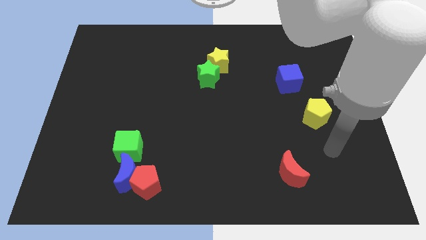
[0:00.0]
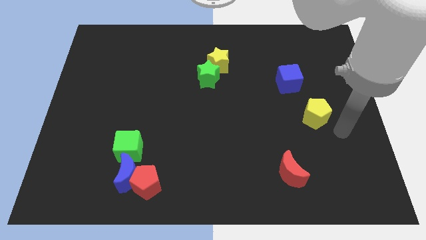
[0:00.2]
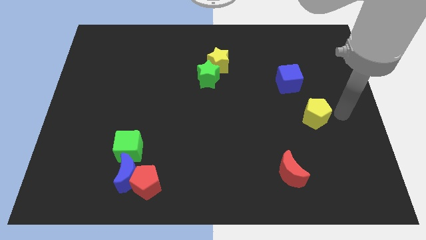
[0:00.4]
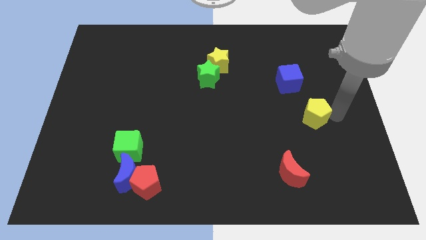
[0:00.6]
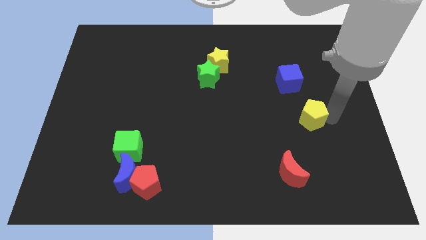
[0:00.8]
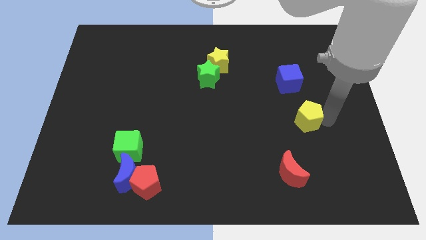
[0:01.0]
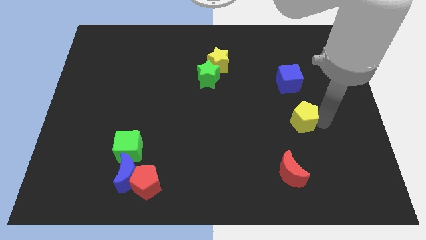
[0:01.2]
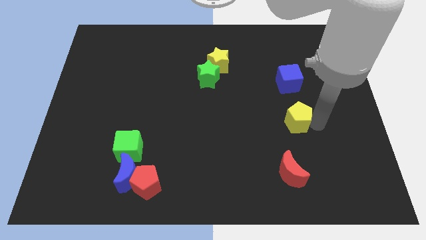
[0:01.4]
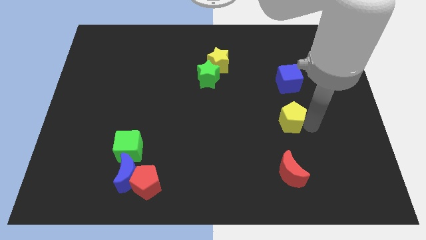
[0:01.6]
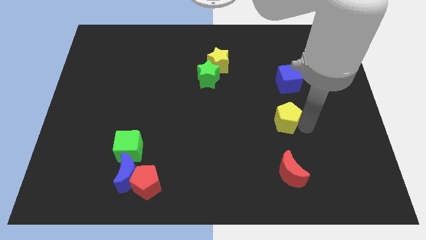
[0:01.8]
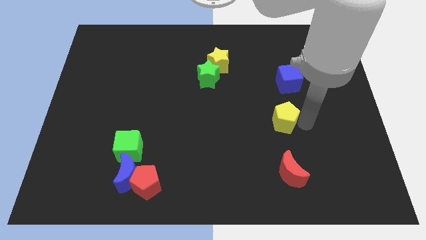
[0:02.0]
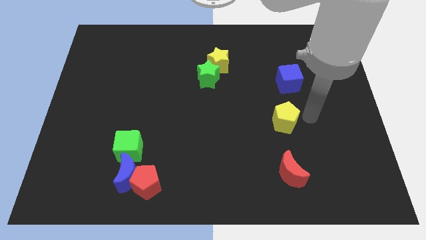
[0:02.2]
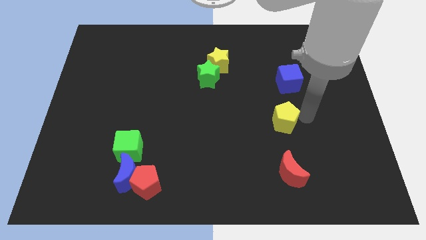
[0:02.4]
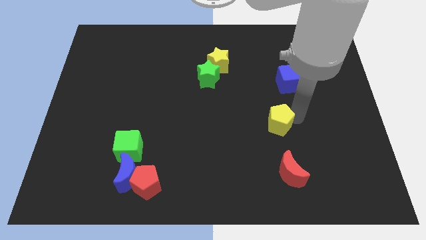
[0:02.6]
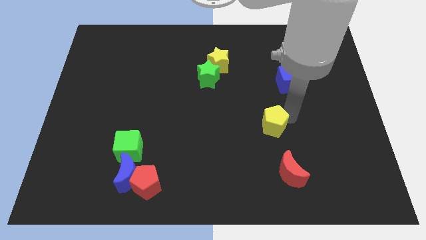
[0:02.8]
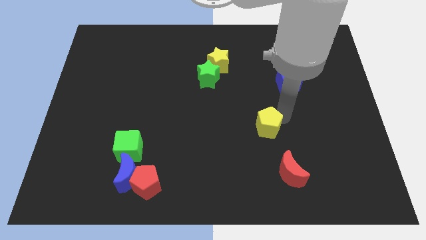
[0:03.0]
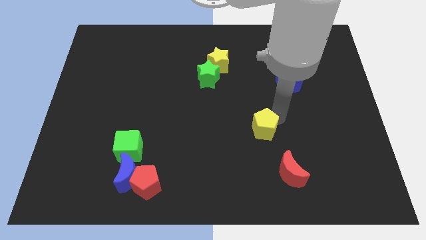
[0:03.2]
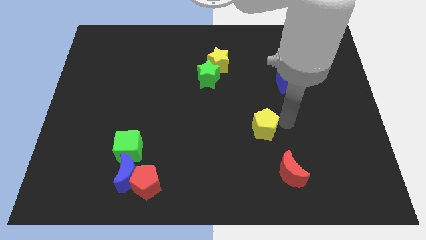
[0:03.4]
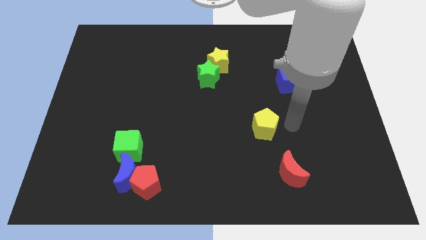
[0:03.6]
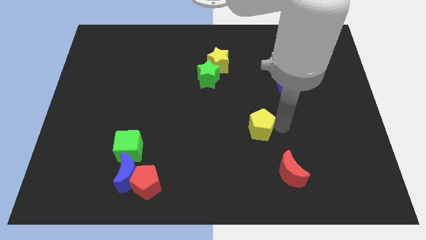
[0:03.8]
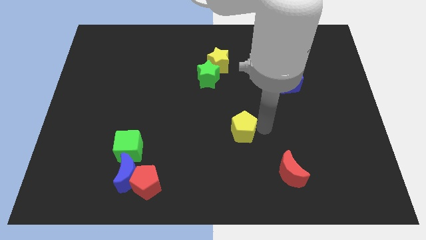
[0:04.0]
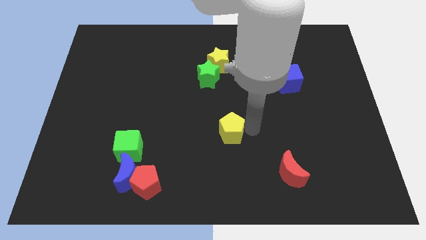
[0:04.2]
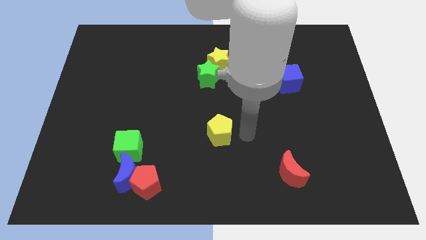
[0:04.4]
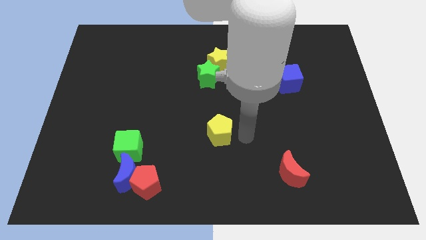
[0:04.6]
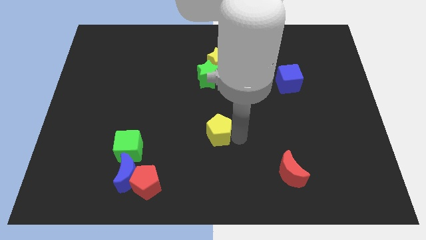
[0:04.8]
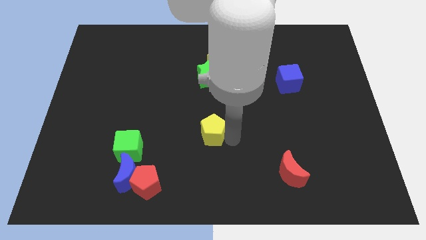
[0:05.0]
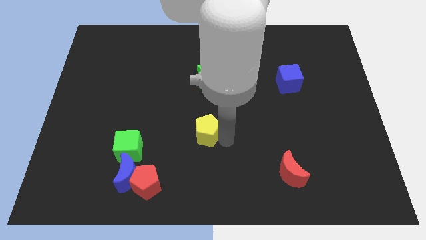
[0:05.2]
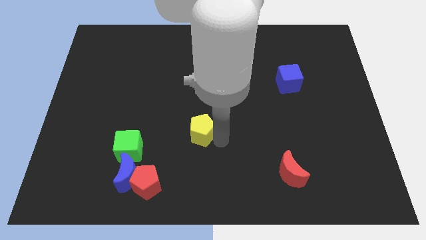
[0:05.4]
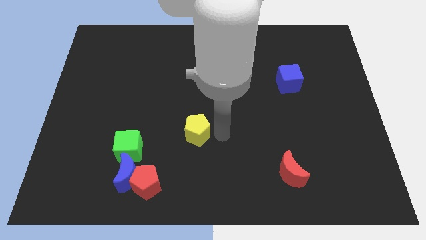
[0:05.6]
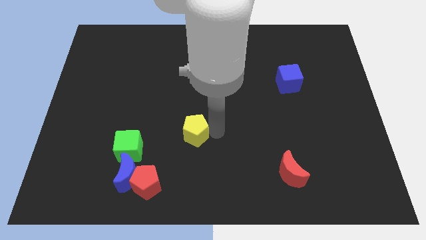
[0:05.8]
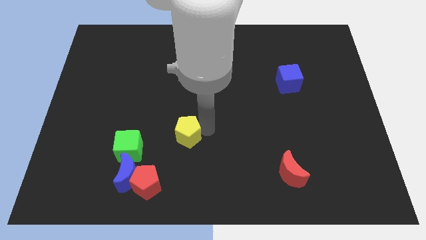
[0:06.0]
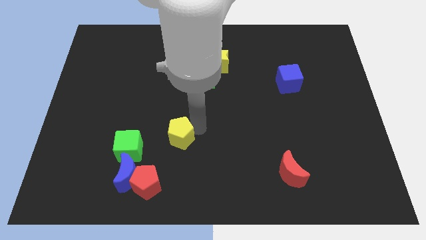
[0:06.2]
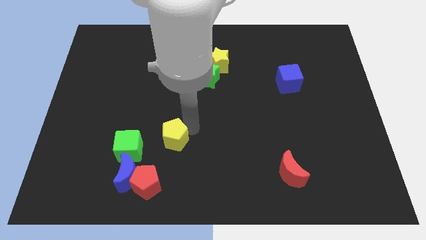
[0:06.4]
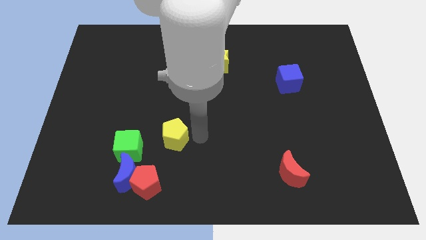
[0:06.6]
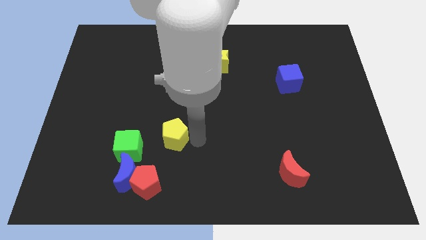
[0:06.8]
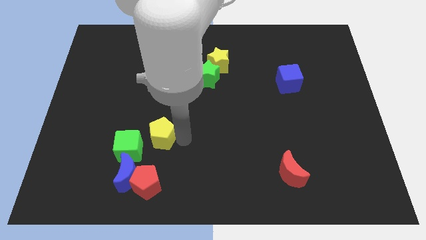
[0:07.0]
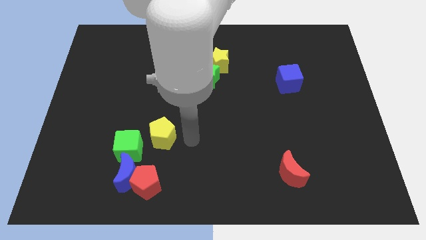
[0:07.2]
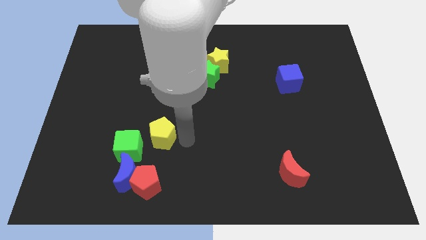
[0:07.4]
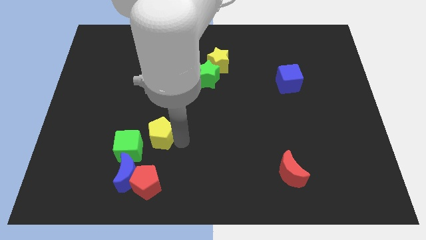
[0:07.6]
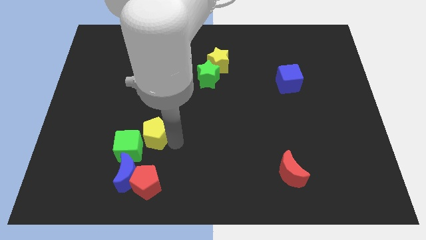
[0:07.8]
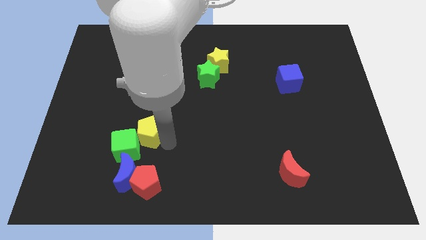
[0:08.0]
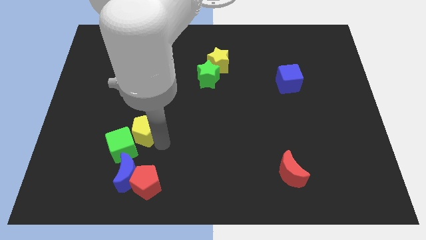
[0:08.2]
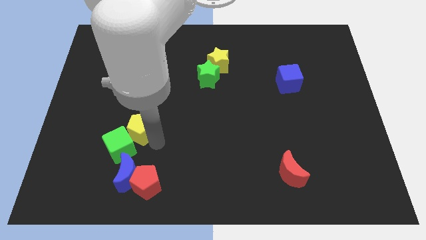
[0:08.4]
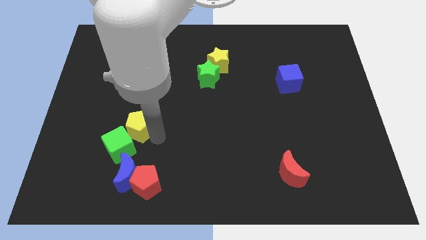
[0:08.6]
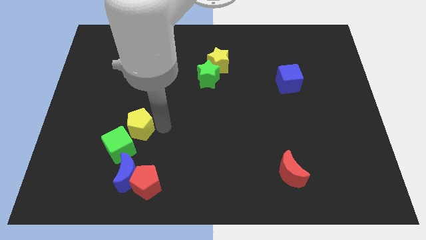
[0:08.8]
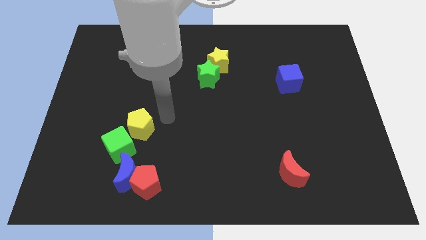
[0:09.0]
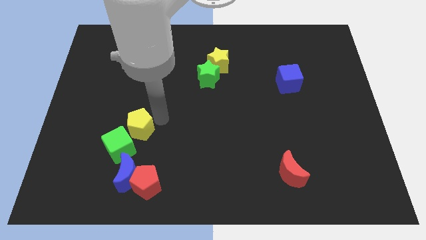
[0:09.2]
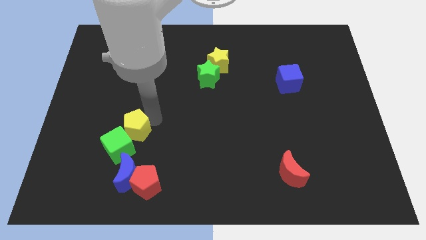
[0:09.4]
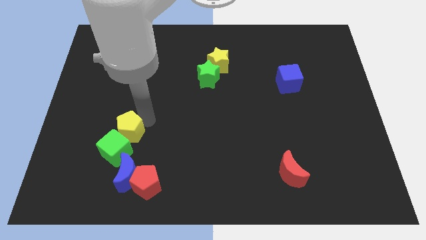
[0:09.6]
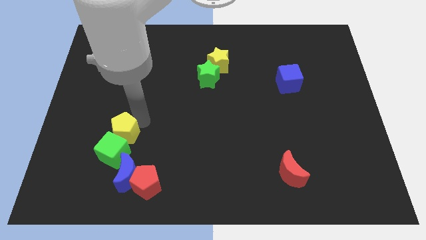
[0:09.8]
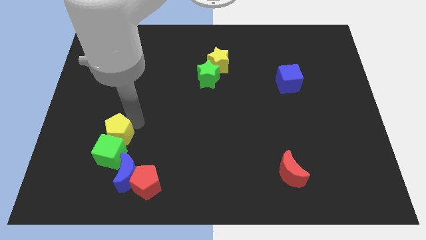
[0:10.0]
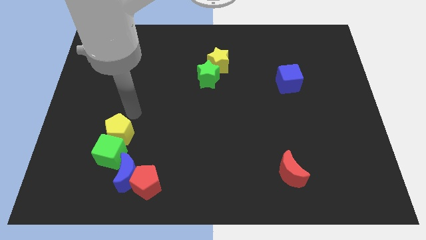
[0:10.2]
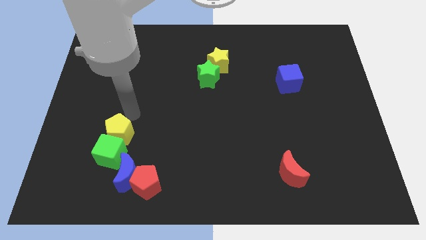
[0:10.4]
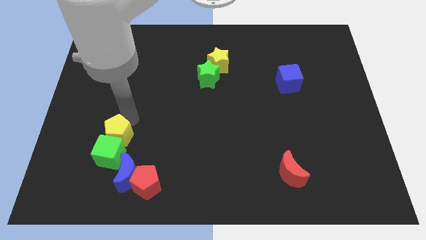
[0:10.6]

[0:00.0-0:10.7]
put the yellow pentagon diagonally up and to the left of the blue moon

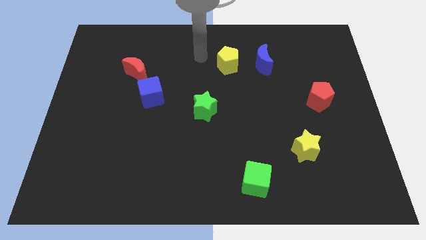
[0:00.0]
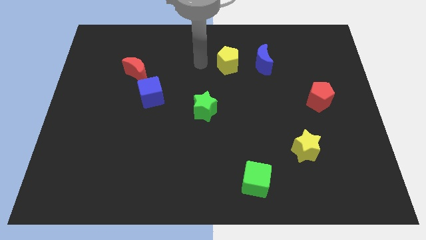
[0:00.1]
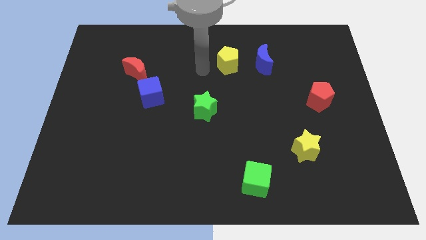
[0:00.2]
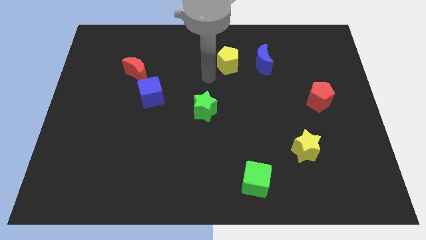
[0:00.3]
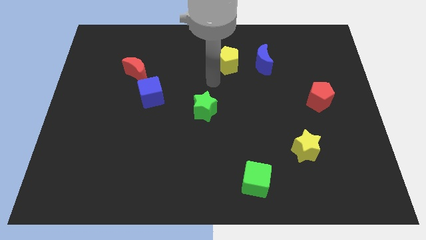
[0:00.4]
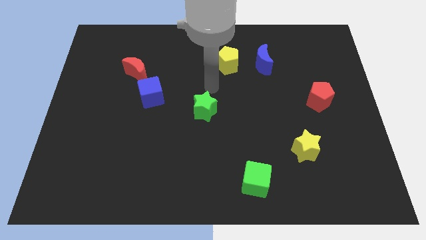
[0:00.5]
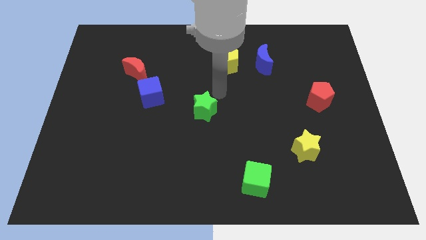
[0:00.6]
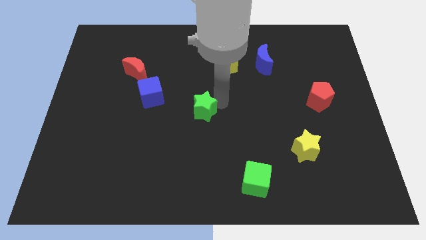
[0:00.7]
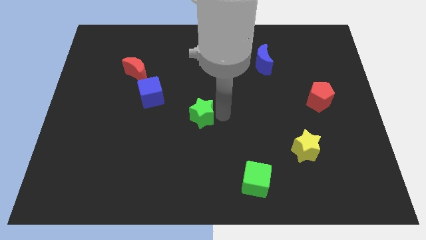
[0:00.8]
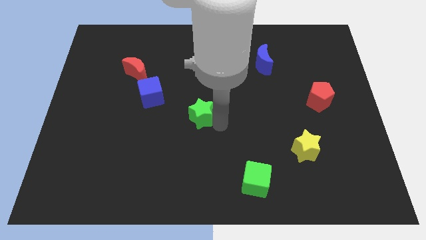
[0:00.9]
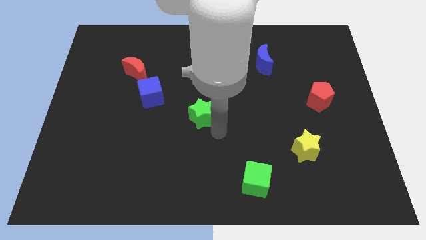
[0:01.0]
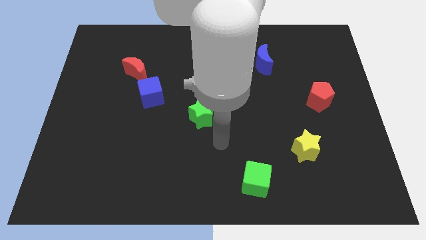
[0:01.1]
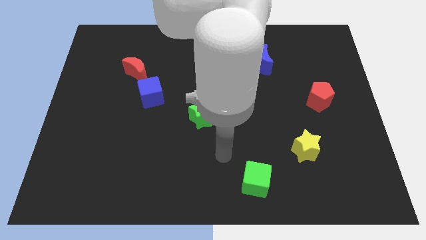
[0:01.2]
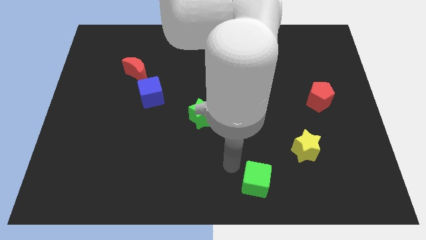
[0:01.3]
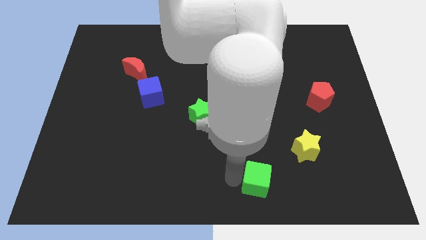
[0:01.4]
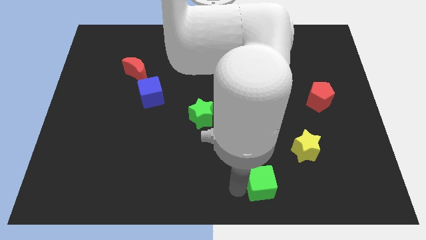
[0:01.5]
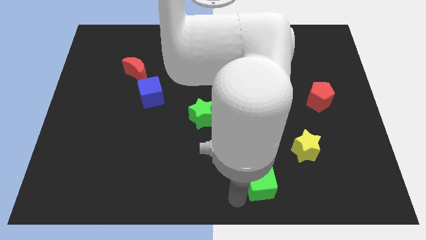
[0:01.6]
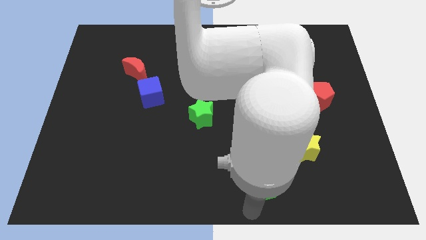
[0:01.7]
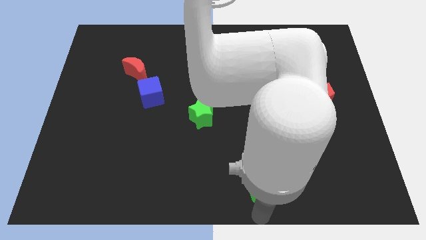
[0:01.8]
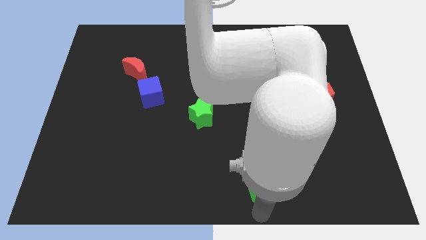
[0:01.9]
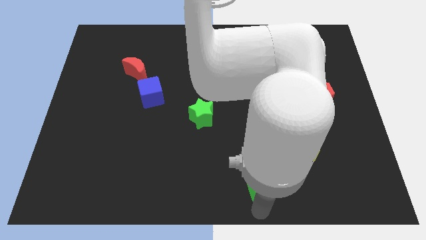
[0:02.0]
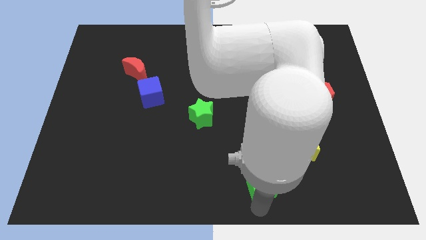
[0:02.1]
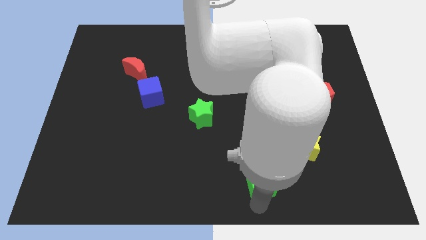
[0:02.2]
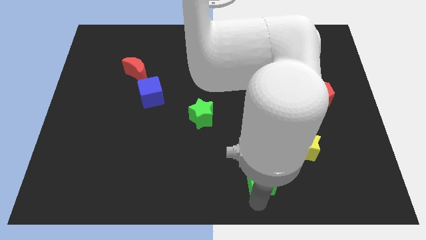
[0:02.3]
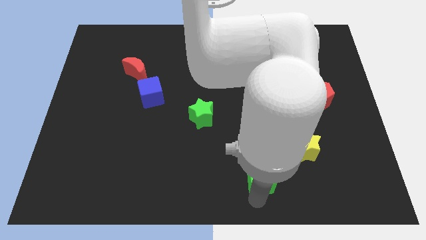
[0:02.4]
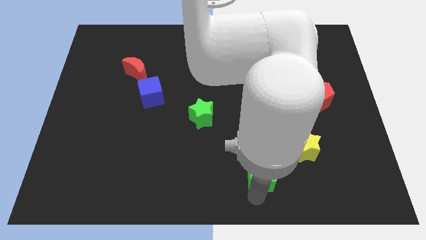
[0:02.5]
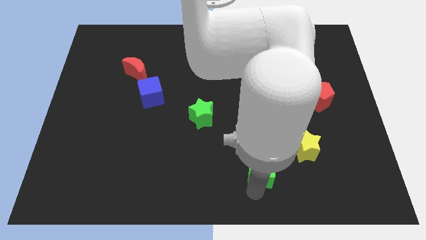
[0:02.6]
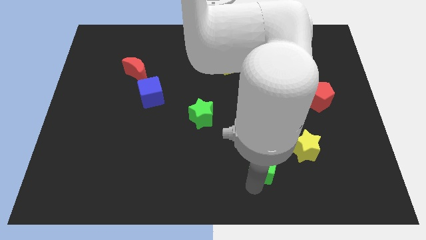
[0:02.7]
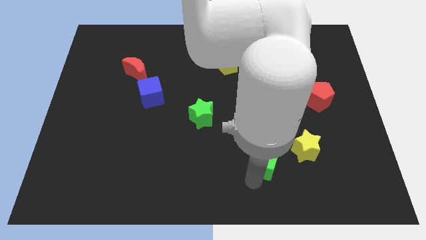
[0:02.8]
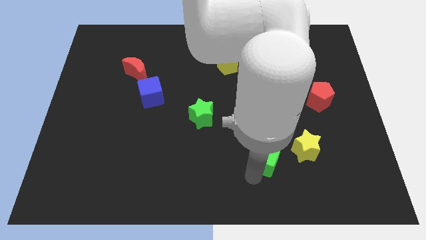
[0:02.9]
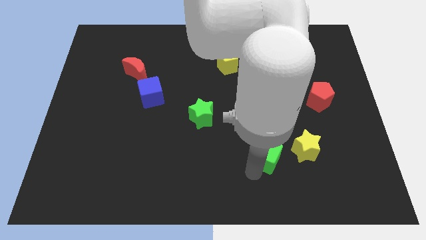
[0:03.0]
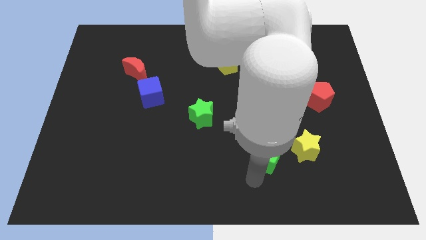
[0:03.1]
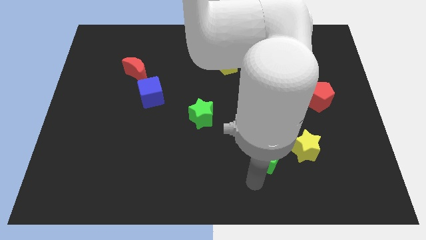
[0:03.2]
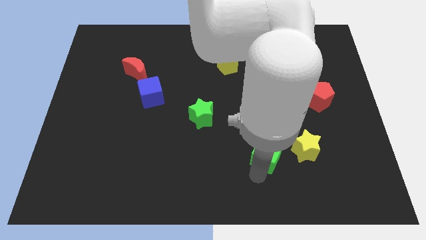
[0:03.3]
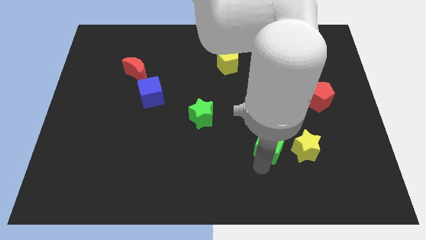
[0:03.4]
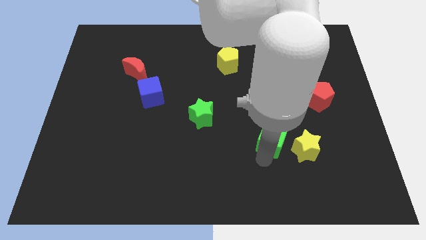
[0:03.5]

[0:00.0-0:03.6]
move the green cube to the top left of the yellow star
